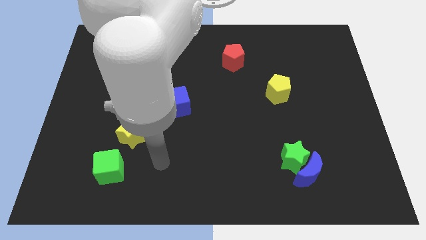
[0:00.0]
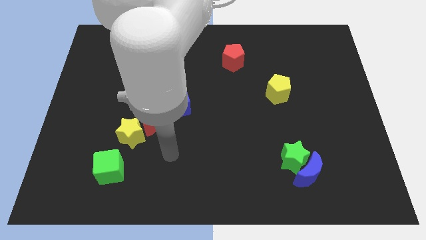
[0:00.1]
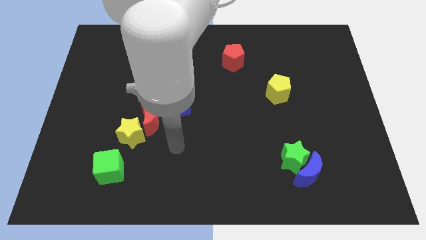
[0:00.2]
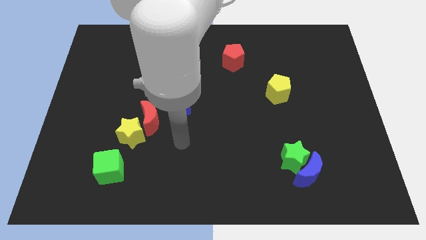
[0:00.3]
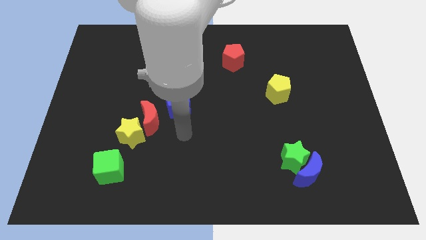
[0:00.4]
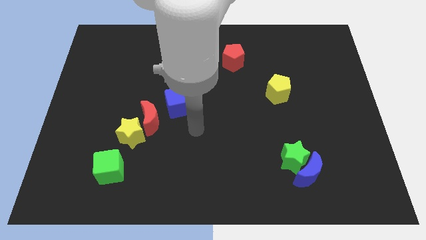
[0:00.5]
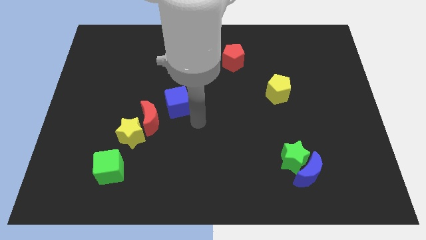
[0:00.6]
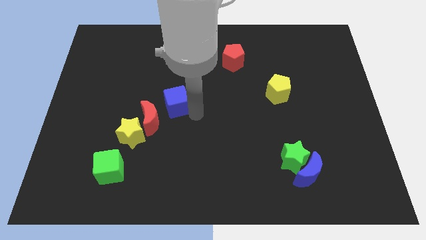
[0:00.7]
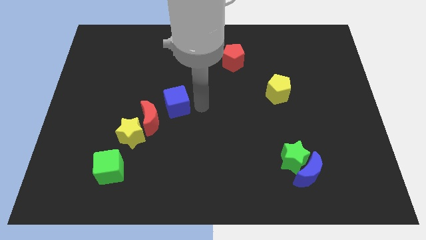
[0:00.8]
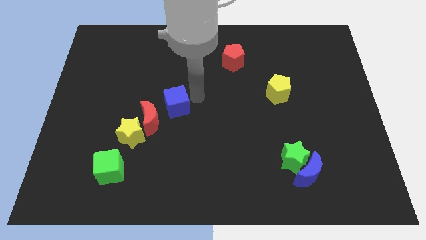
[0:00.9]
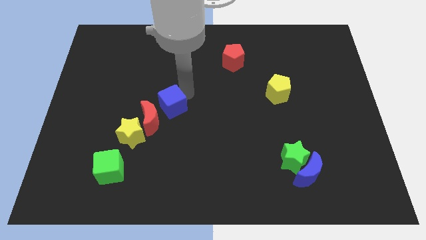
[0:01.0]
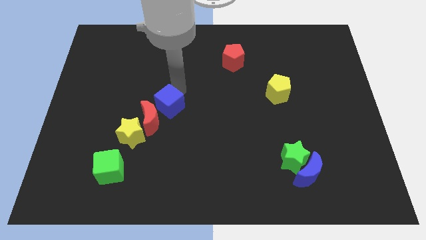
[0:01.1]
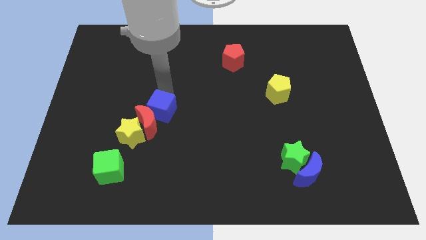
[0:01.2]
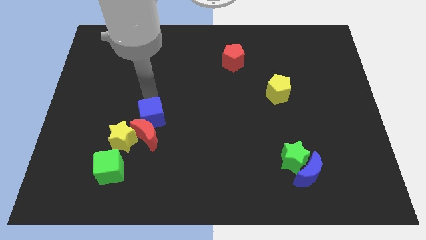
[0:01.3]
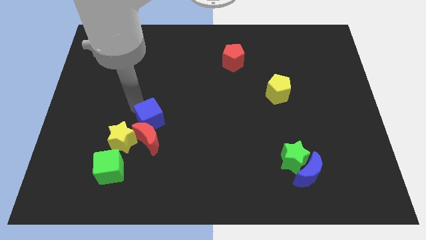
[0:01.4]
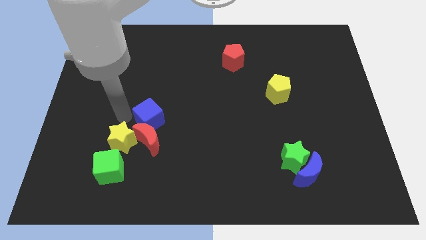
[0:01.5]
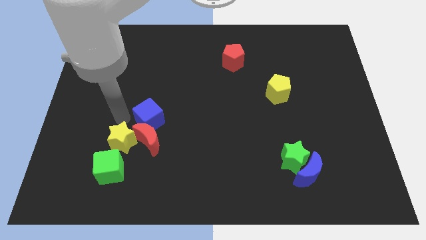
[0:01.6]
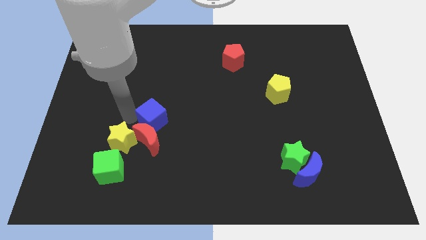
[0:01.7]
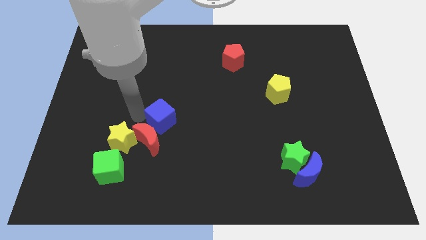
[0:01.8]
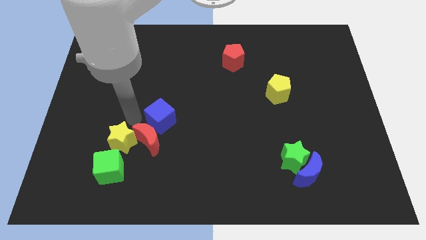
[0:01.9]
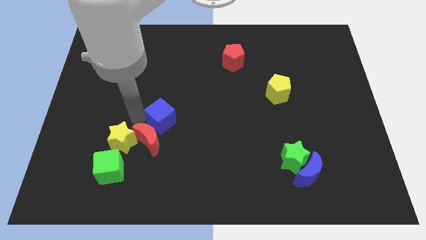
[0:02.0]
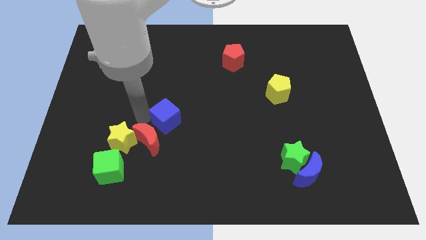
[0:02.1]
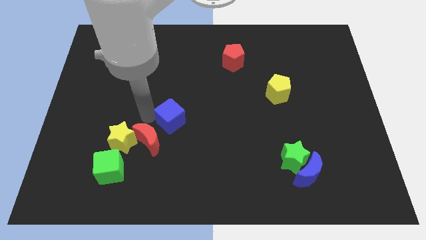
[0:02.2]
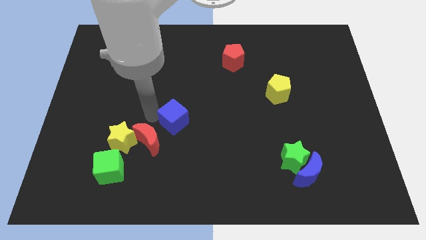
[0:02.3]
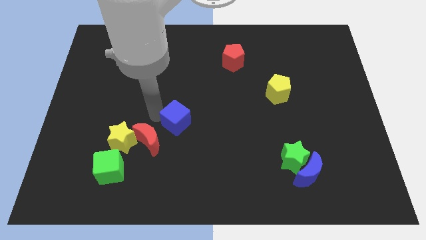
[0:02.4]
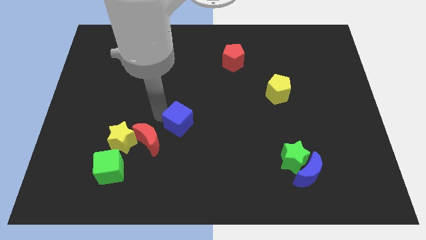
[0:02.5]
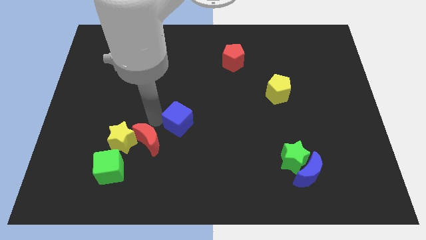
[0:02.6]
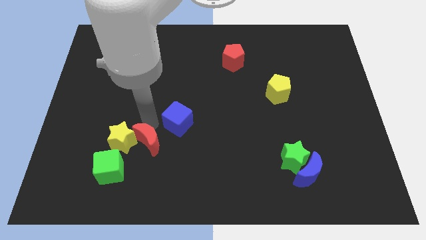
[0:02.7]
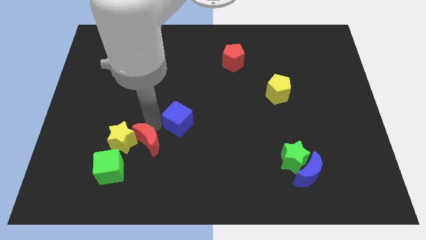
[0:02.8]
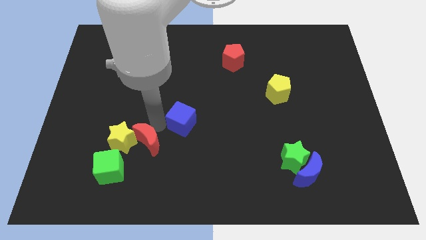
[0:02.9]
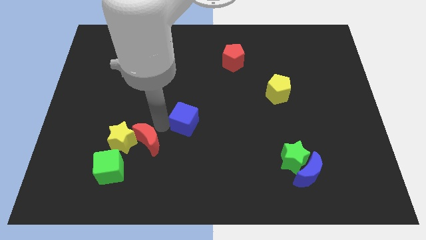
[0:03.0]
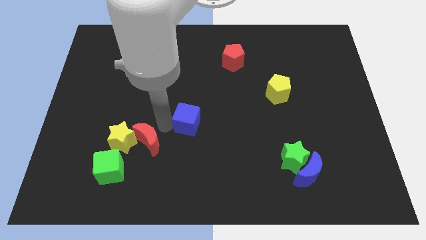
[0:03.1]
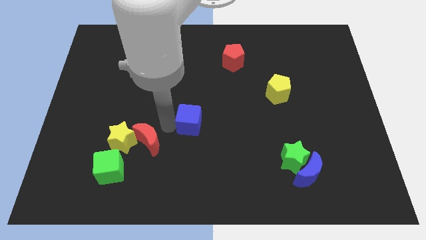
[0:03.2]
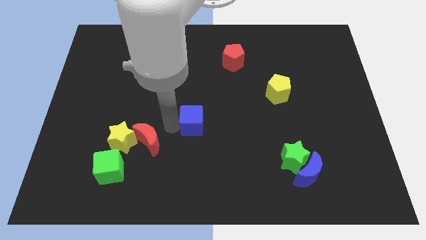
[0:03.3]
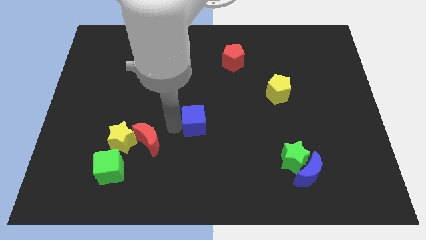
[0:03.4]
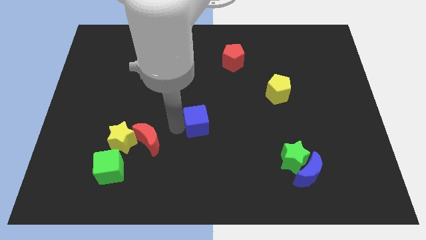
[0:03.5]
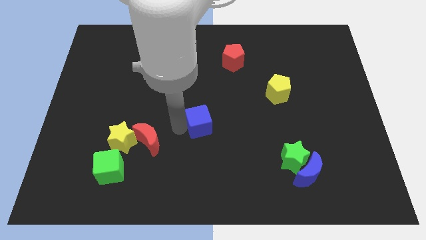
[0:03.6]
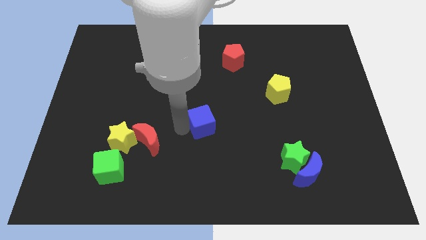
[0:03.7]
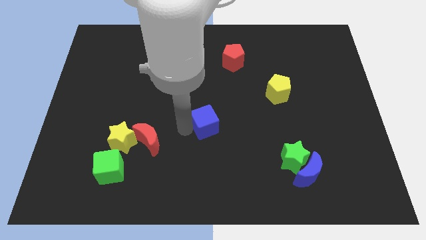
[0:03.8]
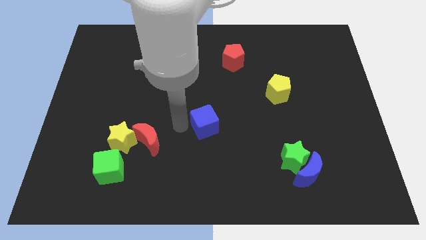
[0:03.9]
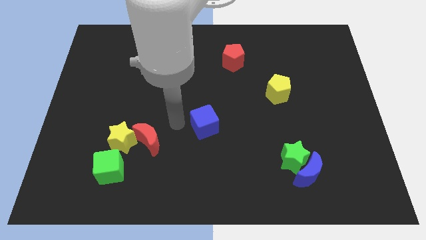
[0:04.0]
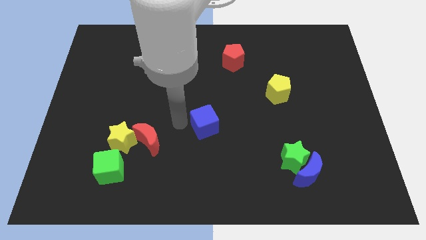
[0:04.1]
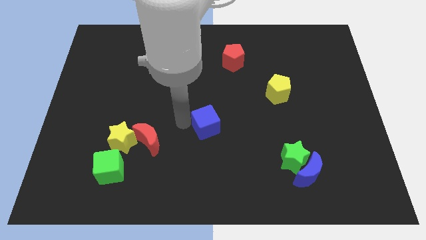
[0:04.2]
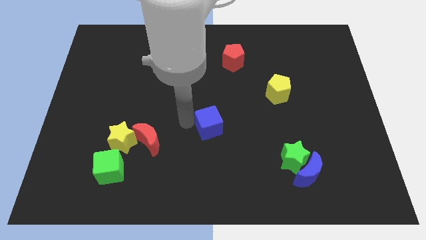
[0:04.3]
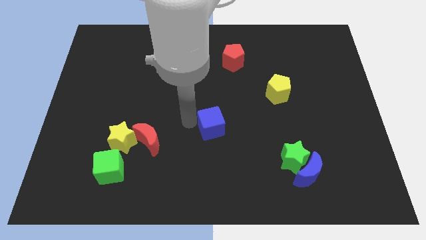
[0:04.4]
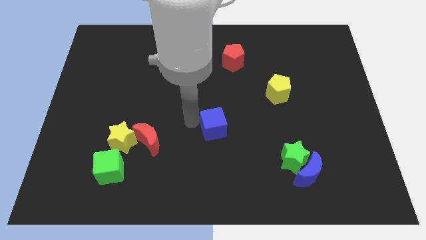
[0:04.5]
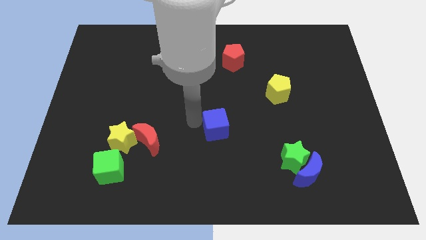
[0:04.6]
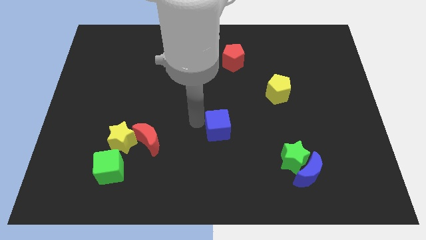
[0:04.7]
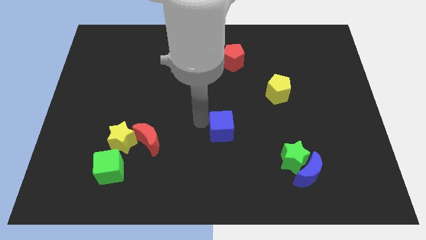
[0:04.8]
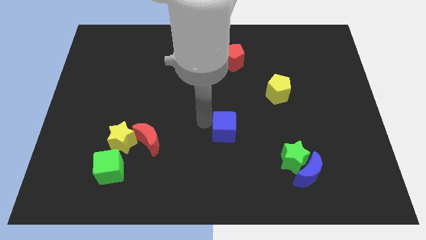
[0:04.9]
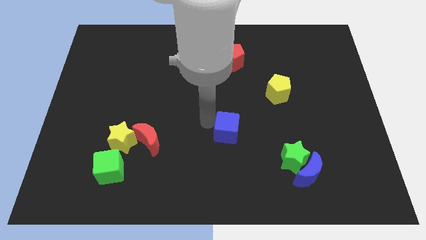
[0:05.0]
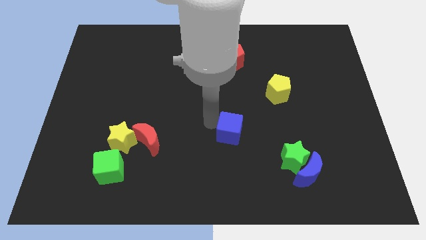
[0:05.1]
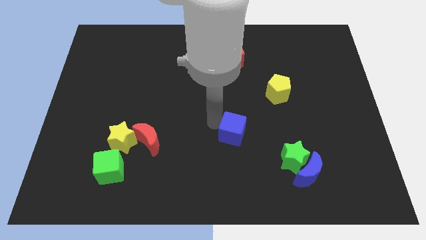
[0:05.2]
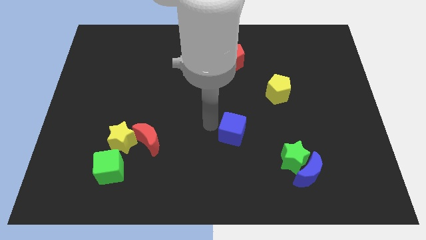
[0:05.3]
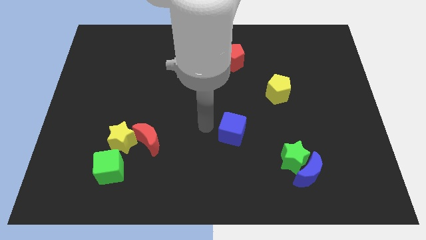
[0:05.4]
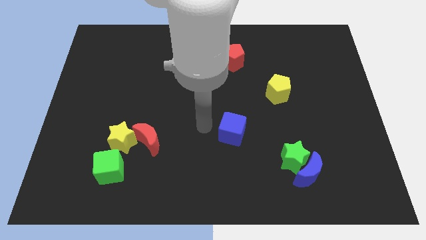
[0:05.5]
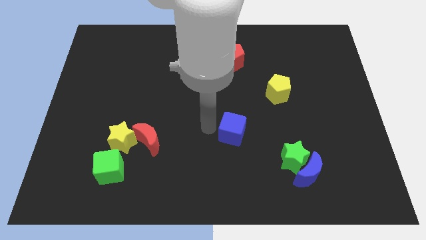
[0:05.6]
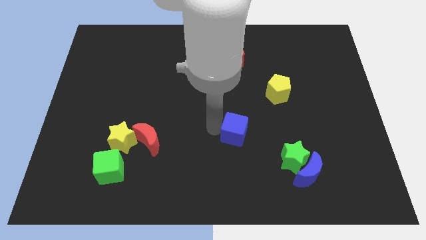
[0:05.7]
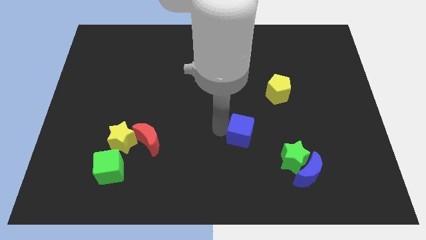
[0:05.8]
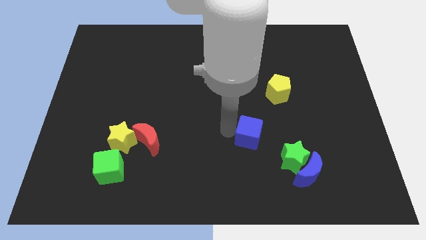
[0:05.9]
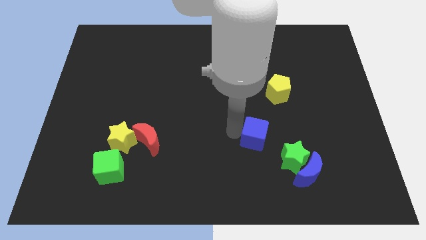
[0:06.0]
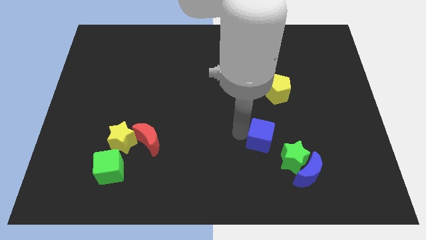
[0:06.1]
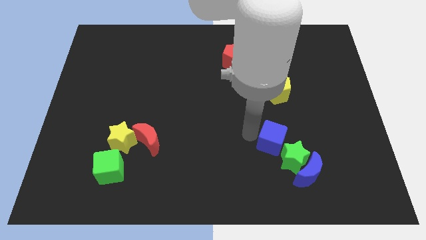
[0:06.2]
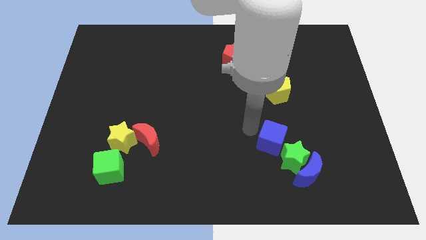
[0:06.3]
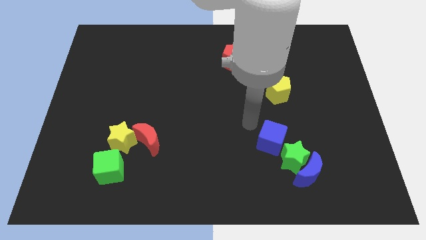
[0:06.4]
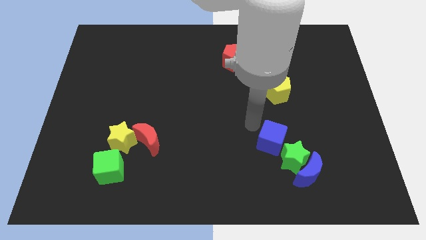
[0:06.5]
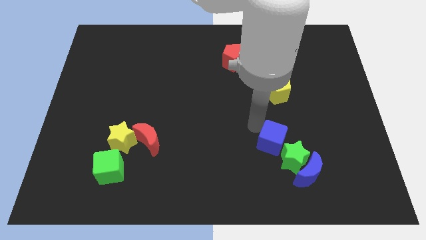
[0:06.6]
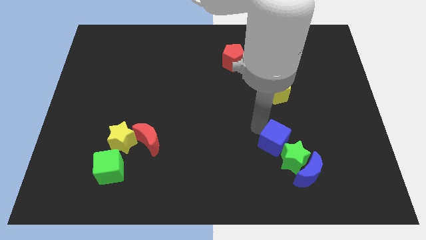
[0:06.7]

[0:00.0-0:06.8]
slide the blue cube towards the green star
